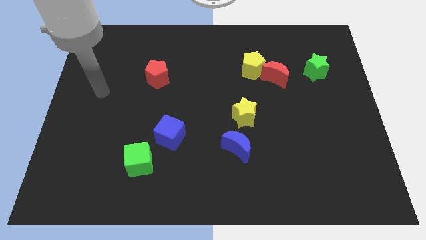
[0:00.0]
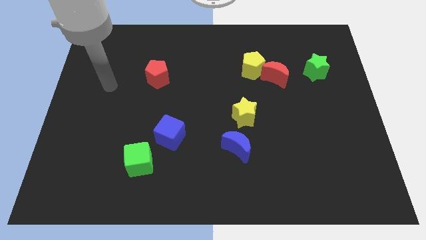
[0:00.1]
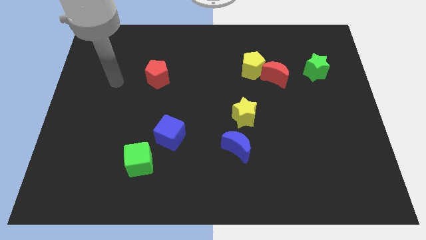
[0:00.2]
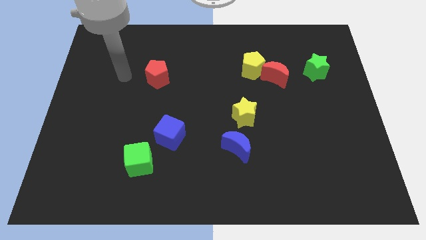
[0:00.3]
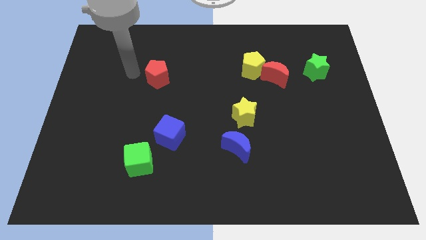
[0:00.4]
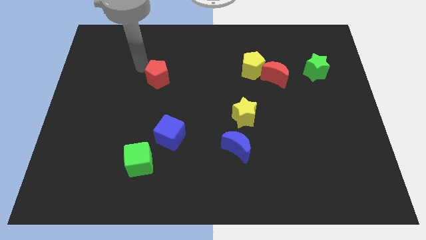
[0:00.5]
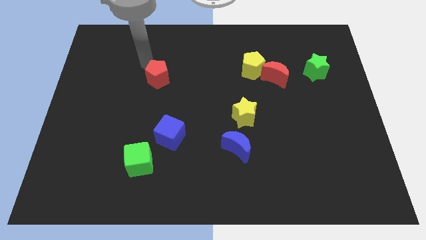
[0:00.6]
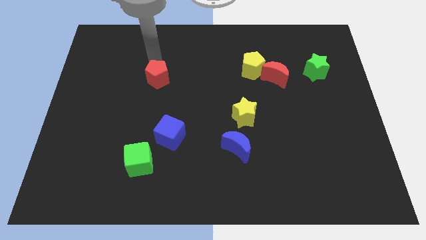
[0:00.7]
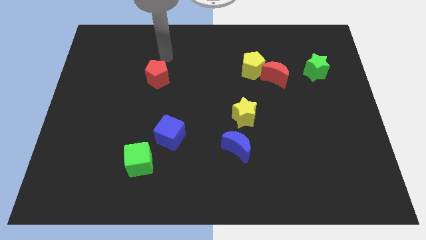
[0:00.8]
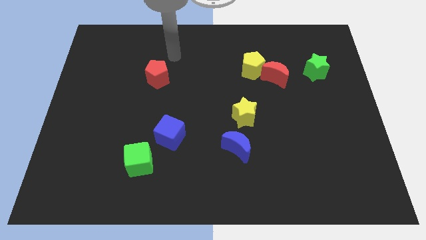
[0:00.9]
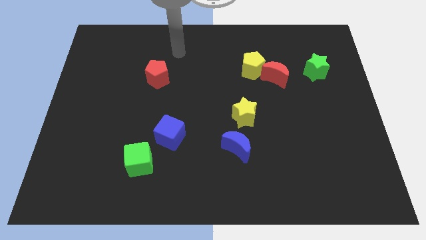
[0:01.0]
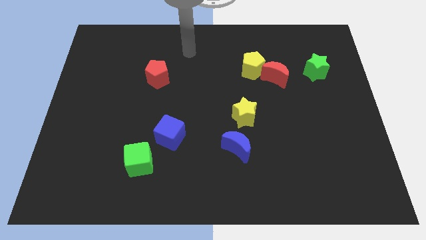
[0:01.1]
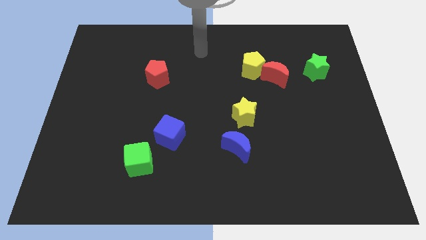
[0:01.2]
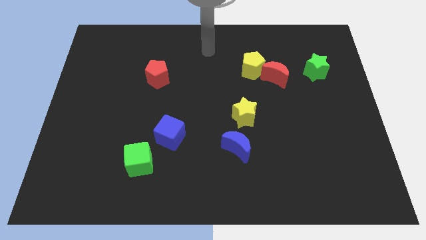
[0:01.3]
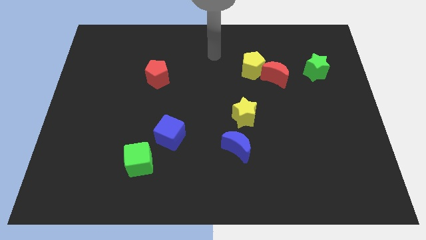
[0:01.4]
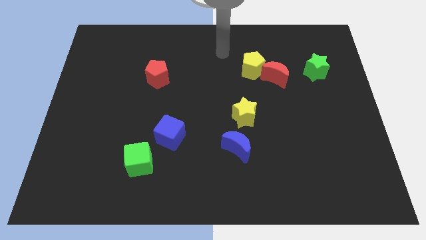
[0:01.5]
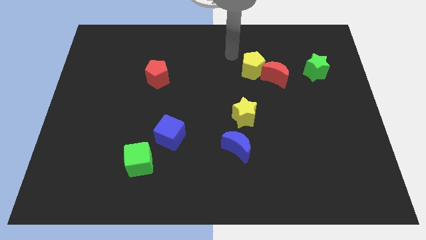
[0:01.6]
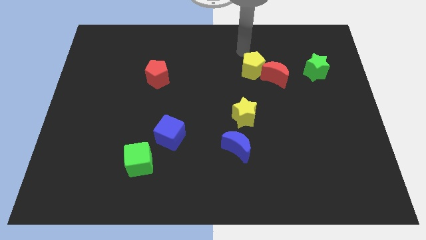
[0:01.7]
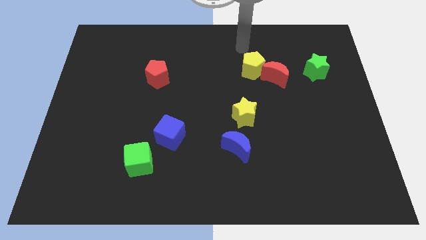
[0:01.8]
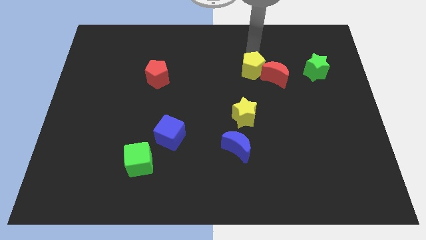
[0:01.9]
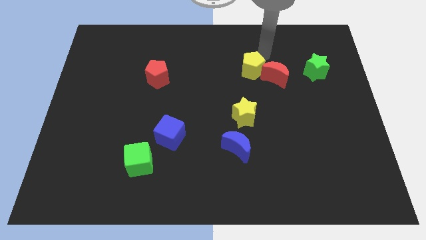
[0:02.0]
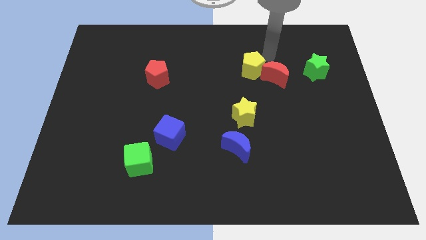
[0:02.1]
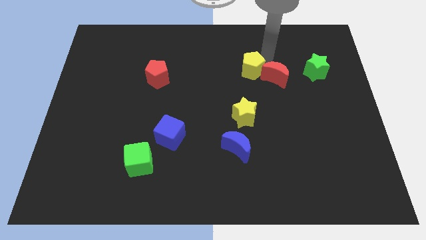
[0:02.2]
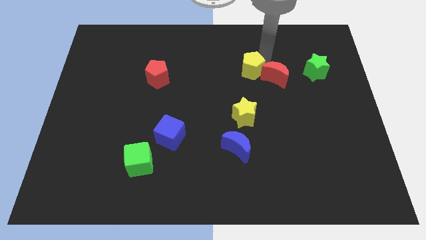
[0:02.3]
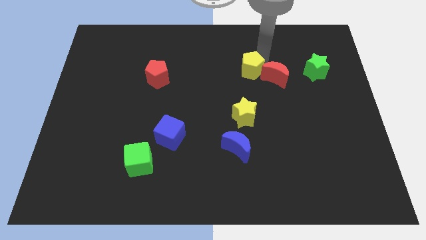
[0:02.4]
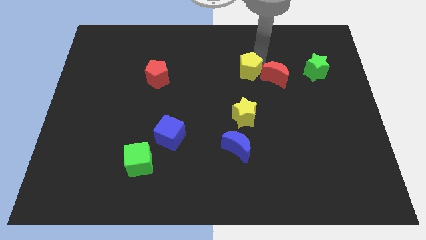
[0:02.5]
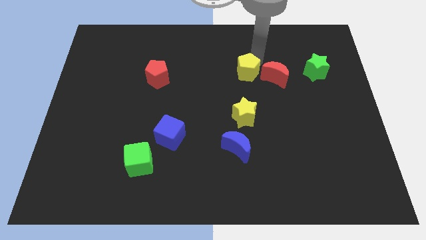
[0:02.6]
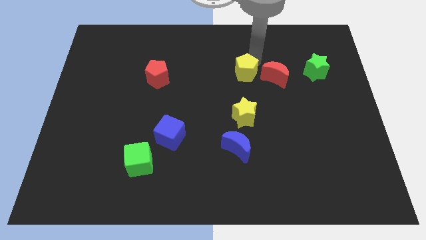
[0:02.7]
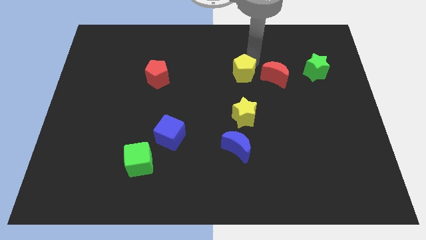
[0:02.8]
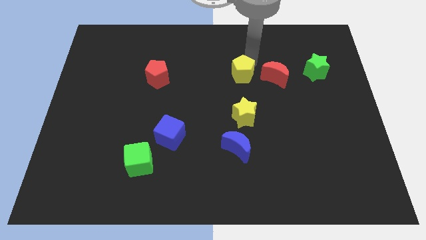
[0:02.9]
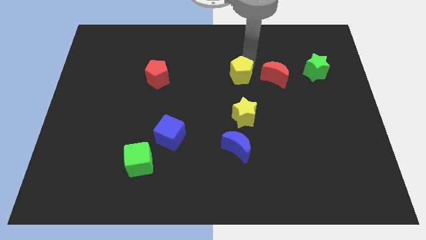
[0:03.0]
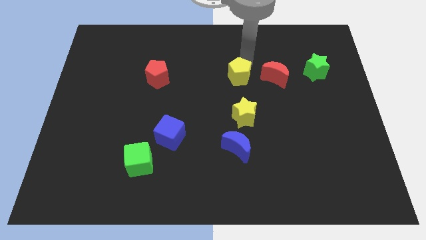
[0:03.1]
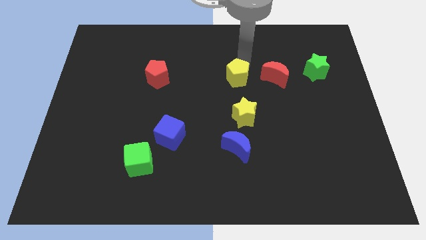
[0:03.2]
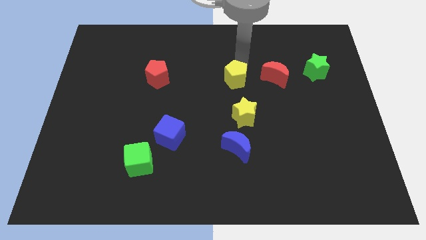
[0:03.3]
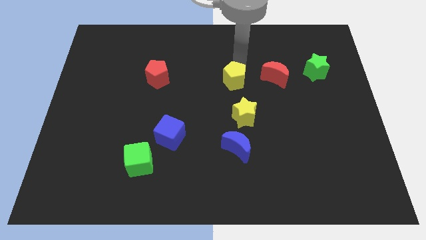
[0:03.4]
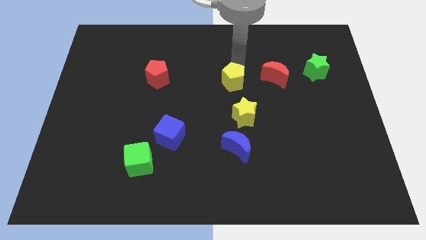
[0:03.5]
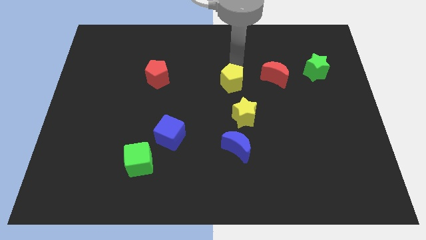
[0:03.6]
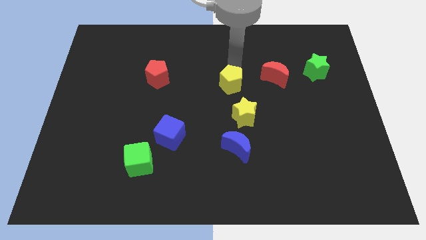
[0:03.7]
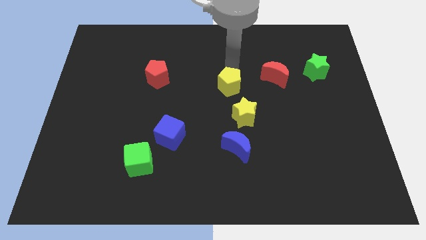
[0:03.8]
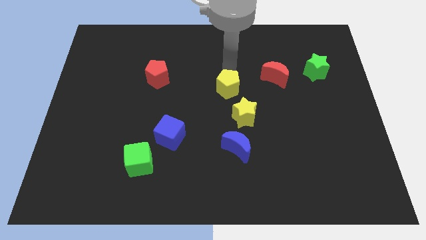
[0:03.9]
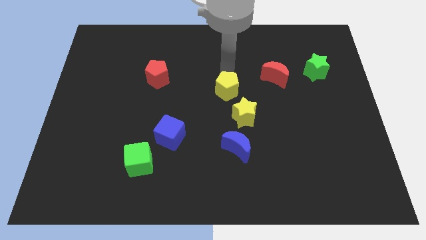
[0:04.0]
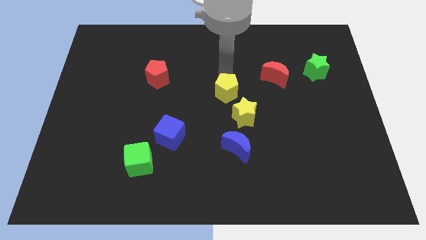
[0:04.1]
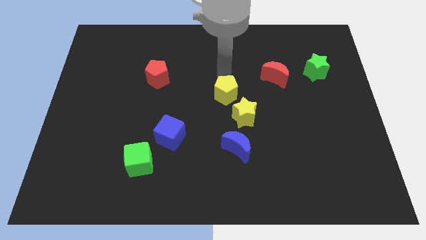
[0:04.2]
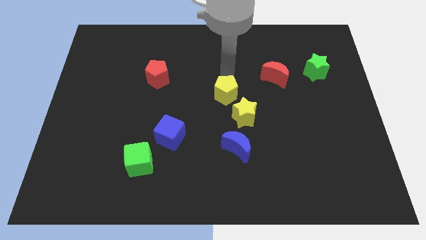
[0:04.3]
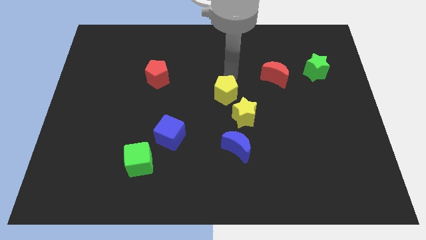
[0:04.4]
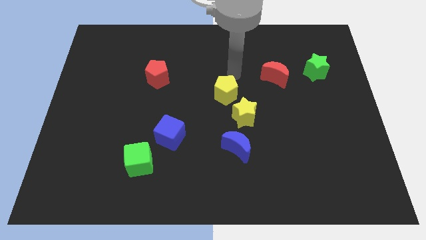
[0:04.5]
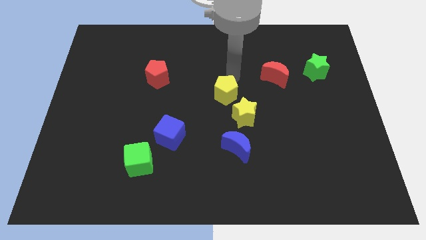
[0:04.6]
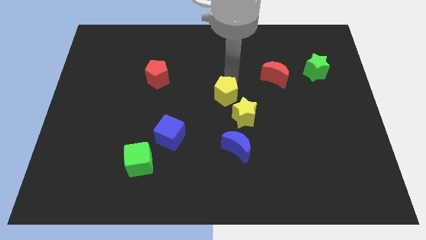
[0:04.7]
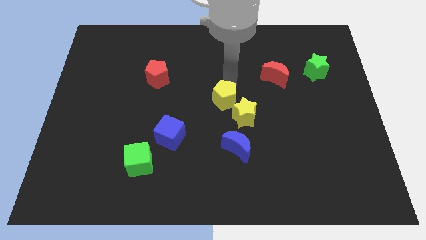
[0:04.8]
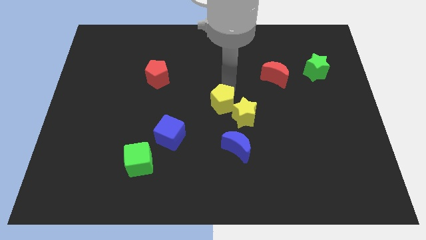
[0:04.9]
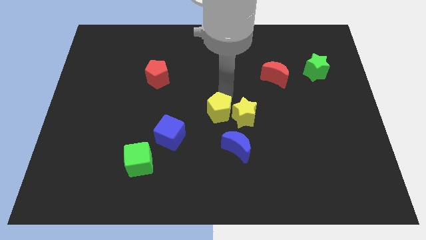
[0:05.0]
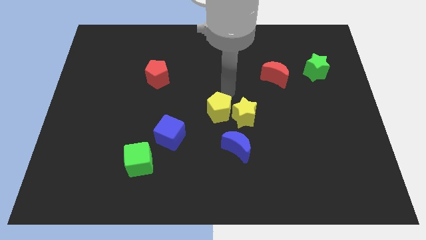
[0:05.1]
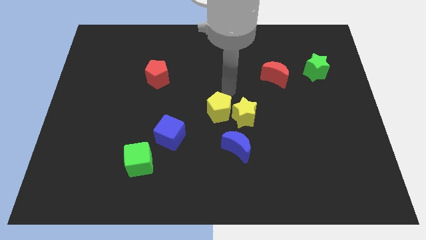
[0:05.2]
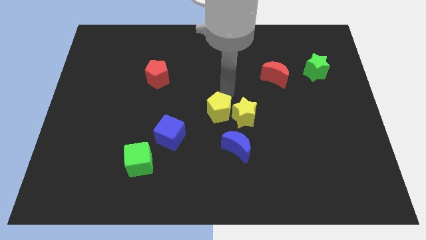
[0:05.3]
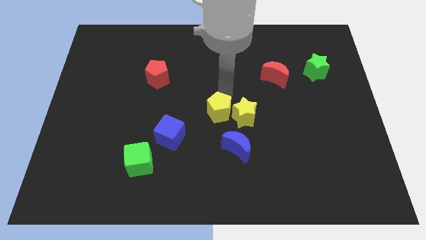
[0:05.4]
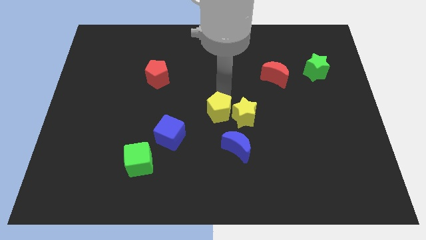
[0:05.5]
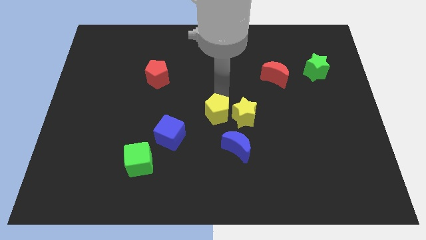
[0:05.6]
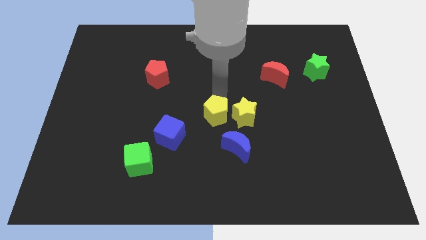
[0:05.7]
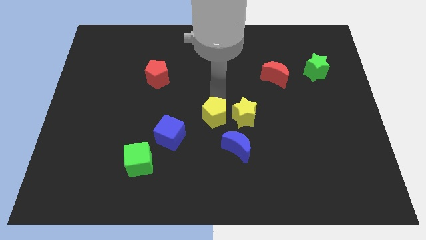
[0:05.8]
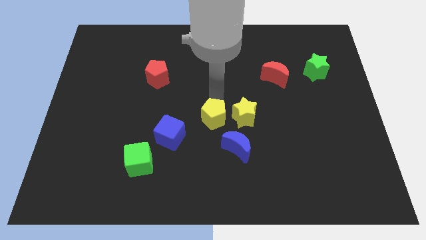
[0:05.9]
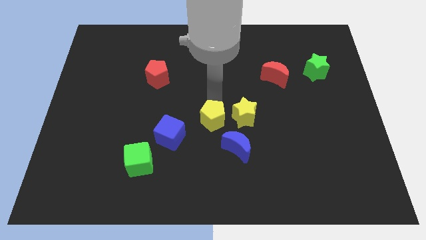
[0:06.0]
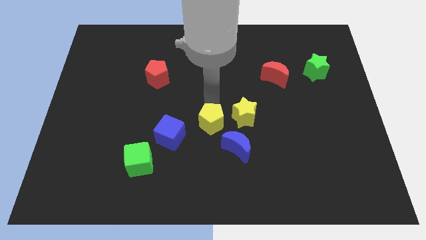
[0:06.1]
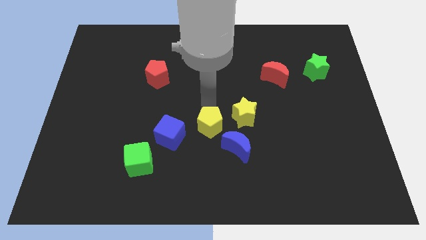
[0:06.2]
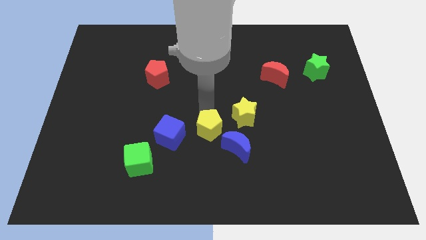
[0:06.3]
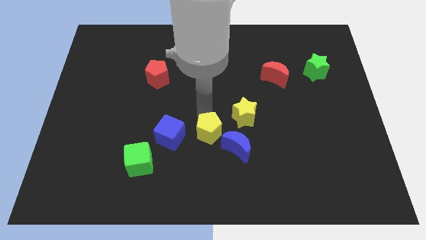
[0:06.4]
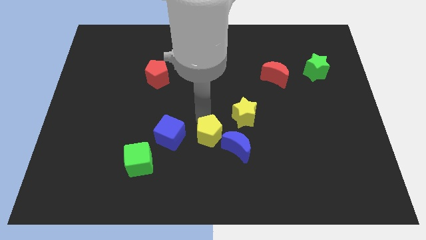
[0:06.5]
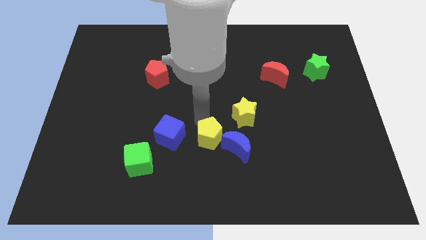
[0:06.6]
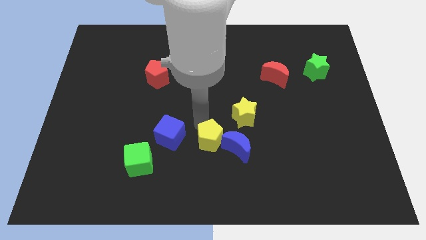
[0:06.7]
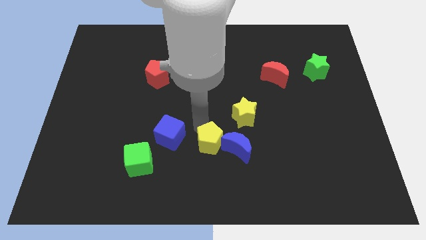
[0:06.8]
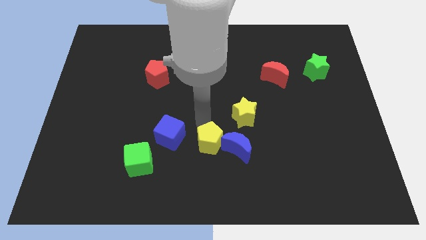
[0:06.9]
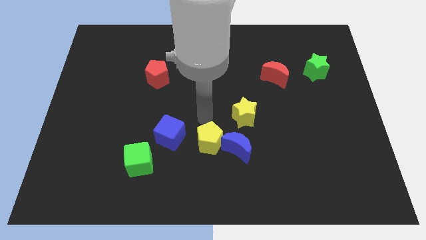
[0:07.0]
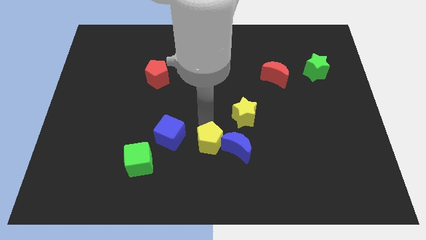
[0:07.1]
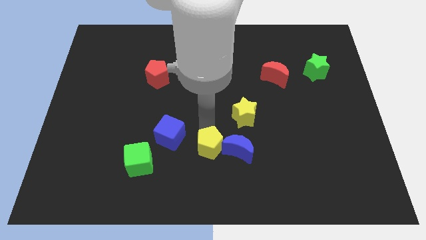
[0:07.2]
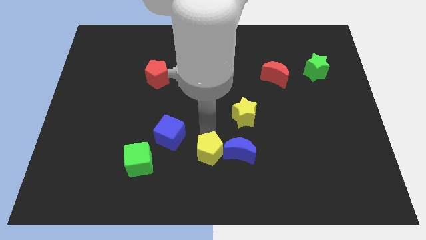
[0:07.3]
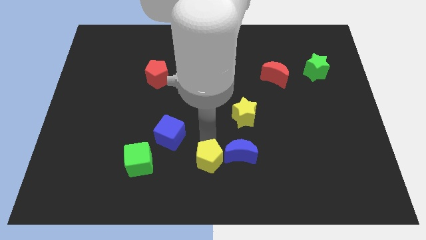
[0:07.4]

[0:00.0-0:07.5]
move the yellow pentagon to the bottom
